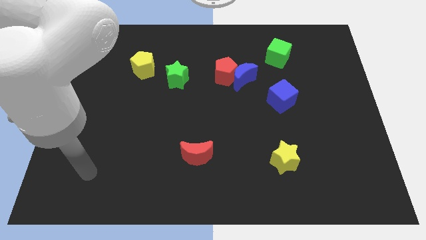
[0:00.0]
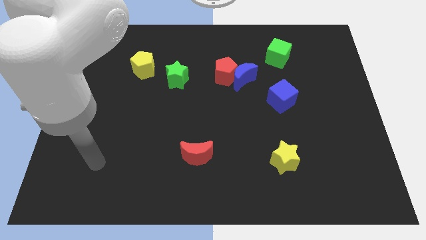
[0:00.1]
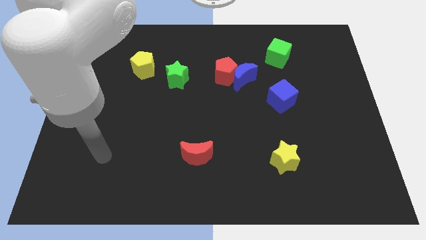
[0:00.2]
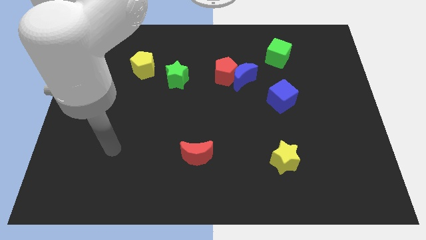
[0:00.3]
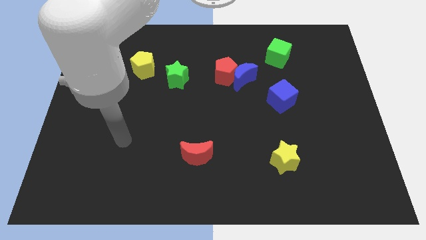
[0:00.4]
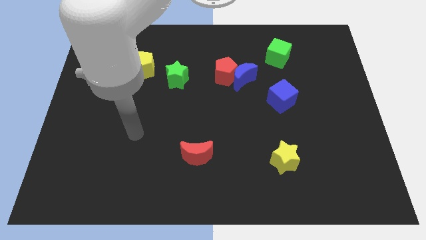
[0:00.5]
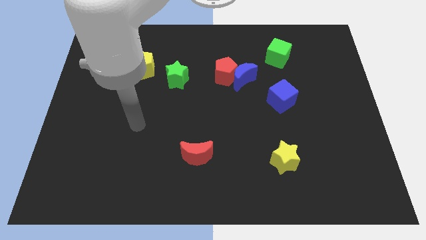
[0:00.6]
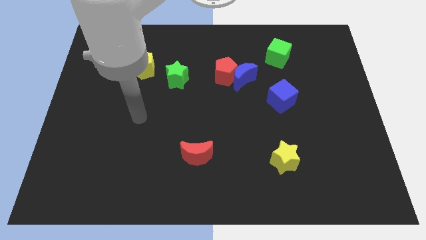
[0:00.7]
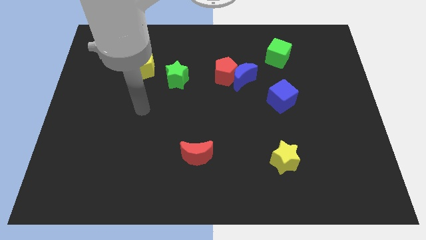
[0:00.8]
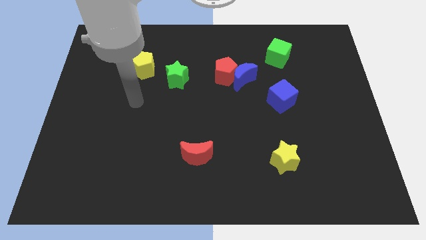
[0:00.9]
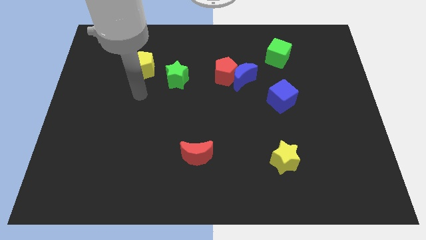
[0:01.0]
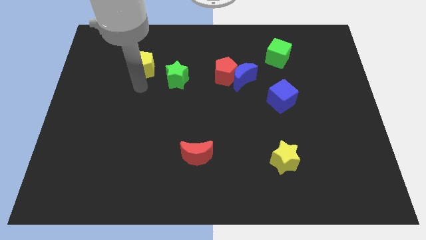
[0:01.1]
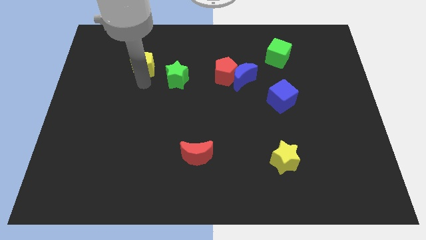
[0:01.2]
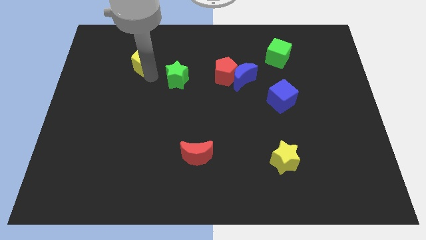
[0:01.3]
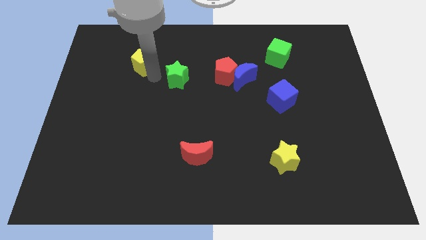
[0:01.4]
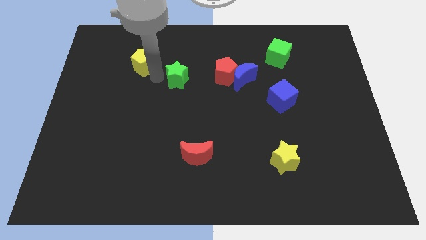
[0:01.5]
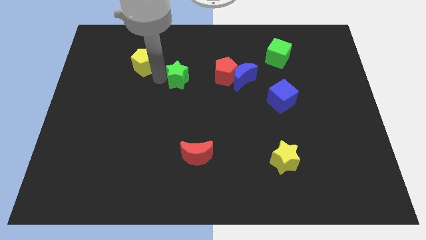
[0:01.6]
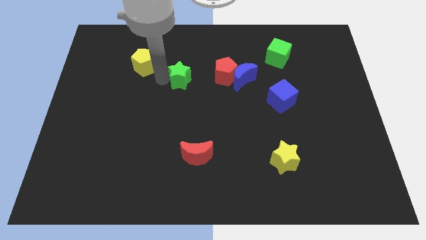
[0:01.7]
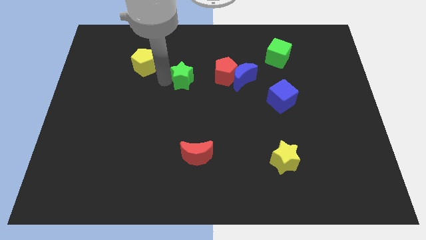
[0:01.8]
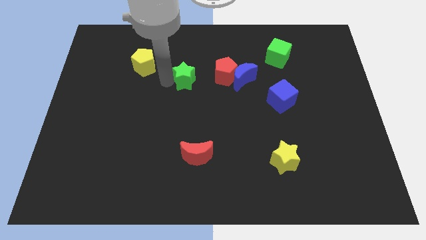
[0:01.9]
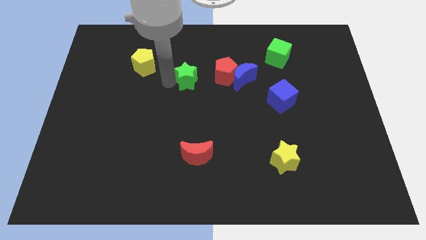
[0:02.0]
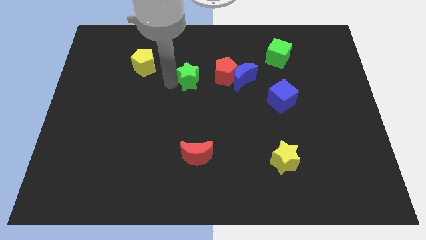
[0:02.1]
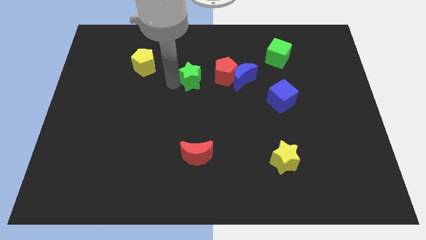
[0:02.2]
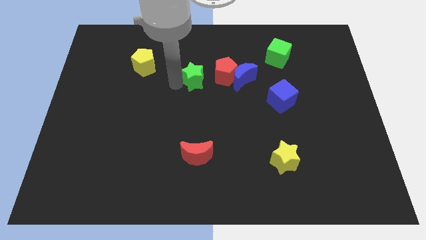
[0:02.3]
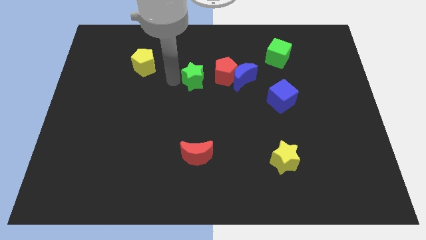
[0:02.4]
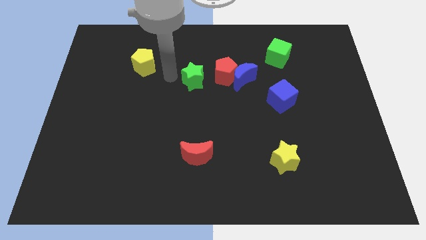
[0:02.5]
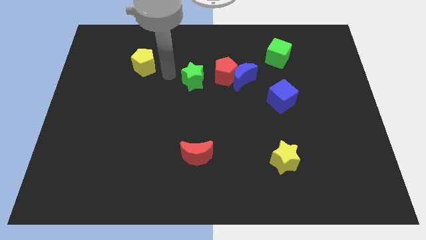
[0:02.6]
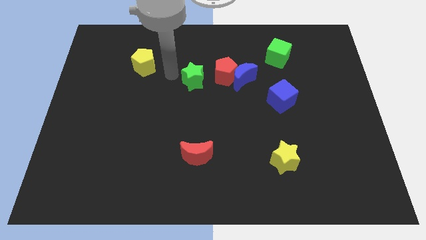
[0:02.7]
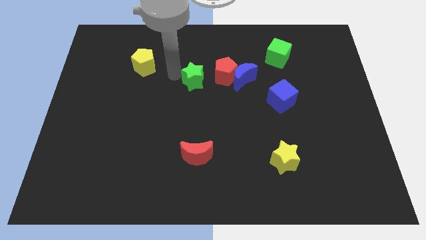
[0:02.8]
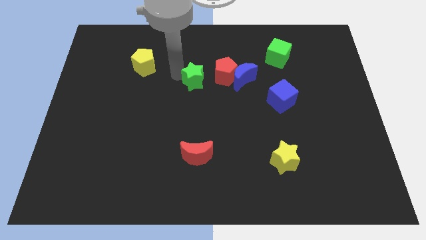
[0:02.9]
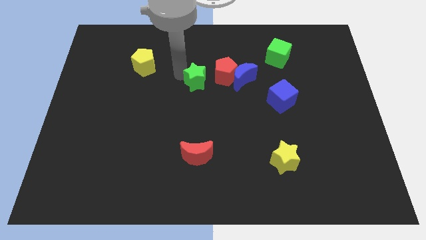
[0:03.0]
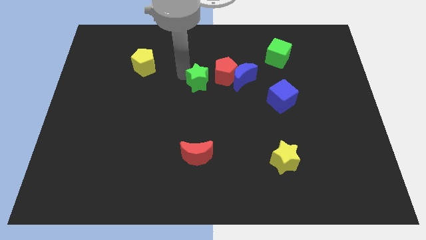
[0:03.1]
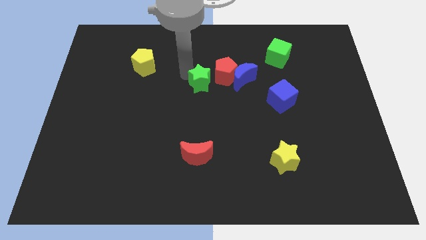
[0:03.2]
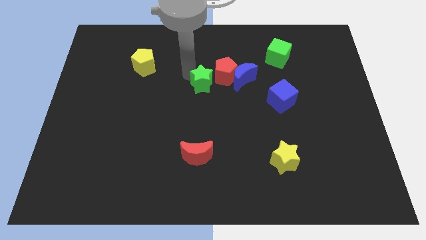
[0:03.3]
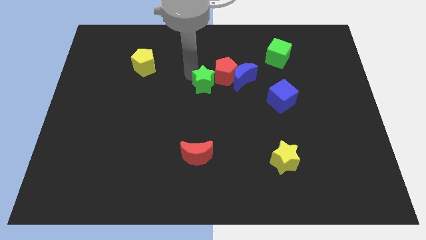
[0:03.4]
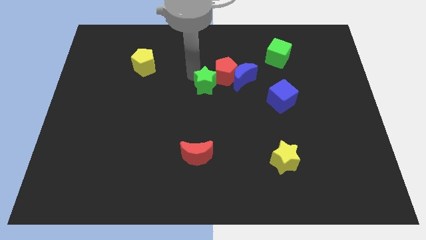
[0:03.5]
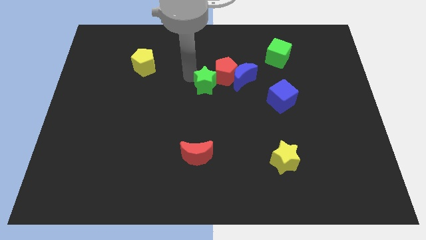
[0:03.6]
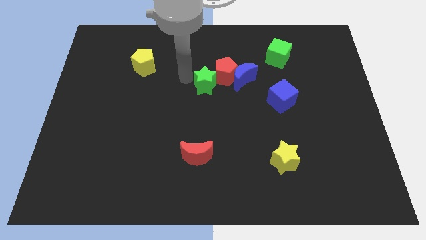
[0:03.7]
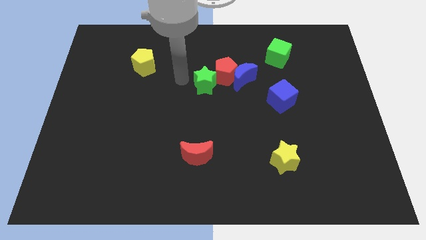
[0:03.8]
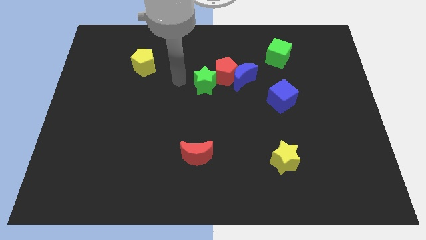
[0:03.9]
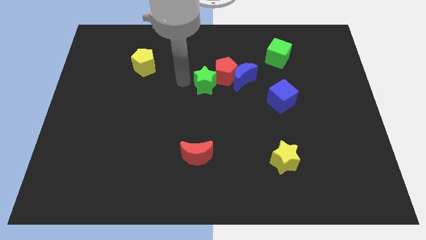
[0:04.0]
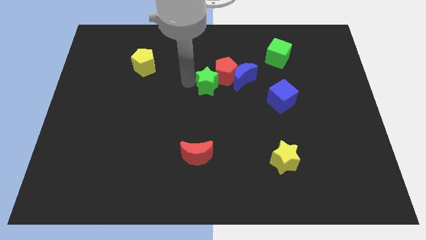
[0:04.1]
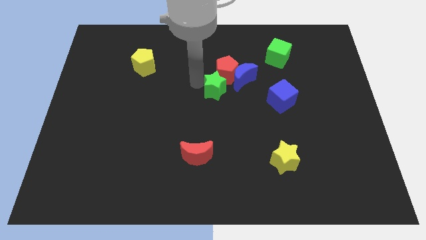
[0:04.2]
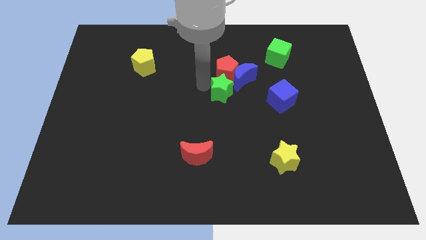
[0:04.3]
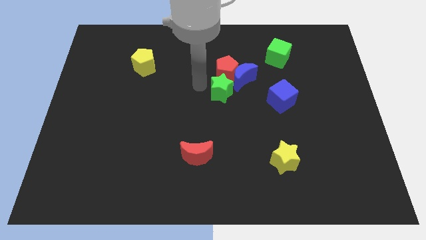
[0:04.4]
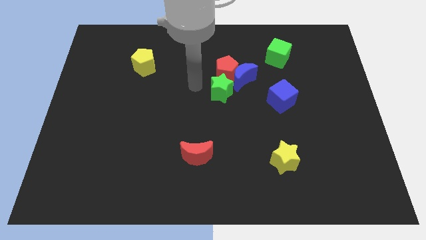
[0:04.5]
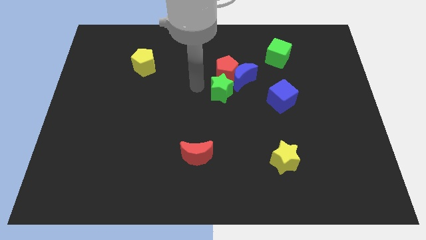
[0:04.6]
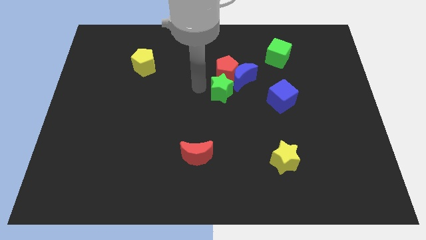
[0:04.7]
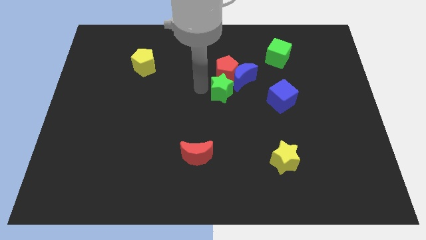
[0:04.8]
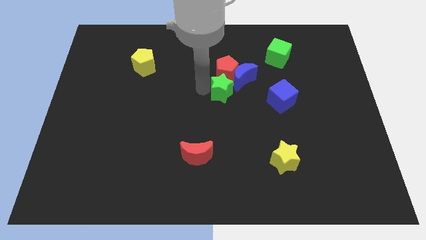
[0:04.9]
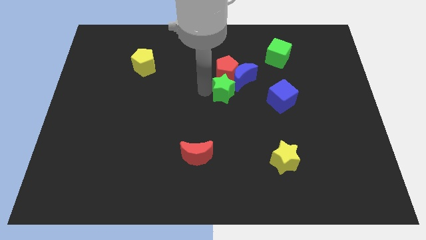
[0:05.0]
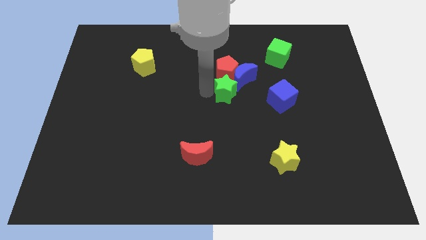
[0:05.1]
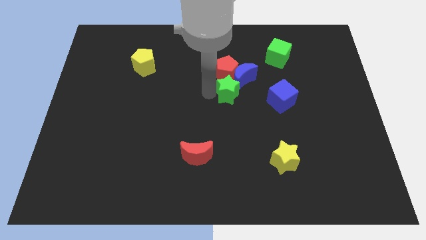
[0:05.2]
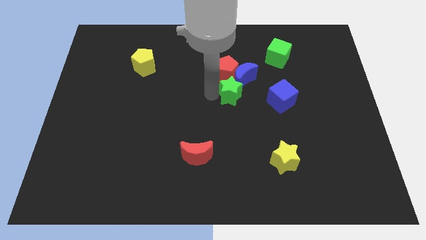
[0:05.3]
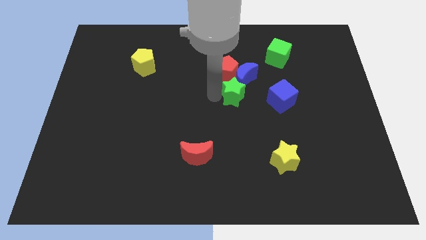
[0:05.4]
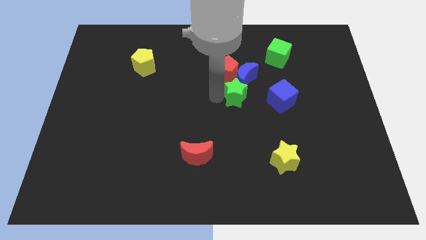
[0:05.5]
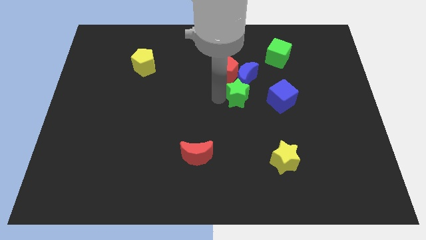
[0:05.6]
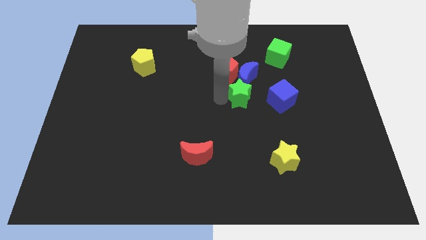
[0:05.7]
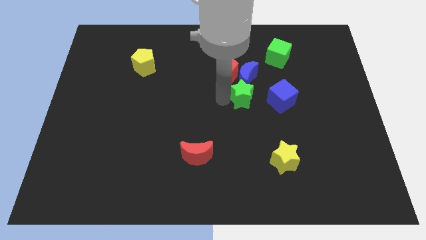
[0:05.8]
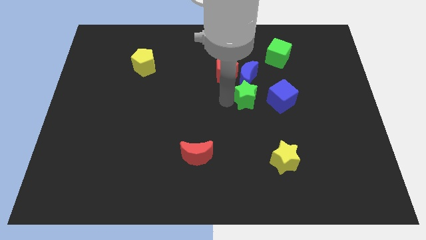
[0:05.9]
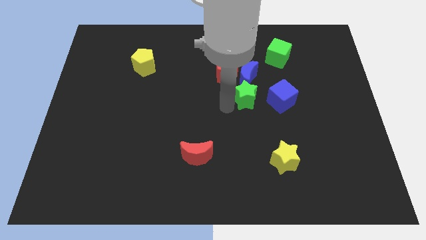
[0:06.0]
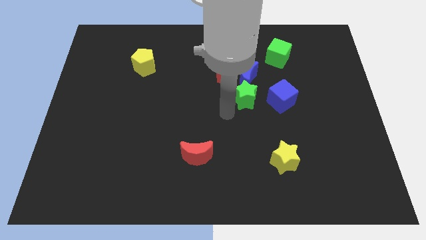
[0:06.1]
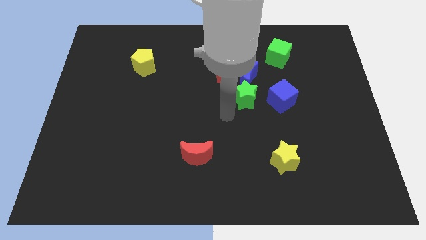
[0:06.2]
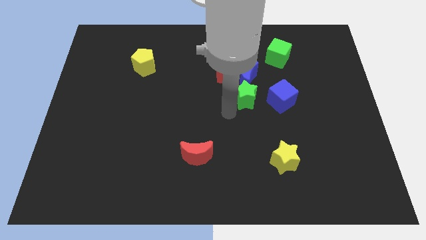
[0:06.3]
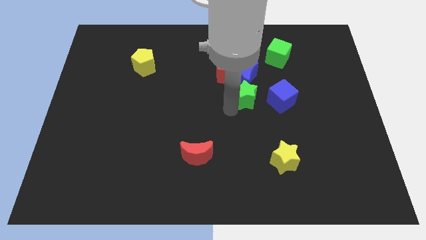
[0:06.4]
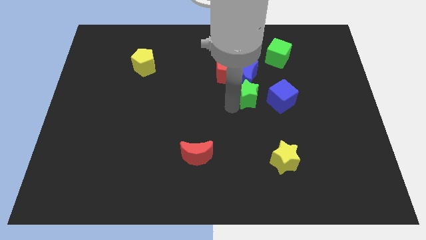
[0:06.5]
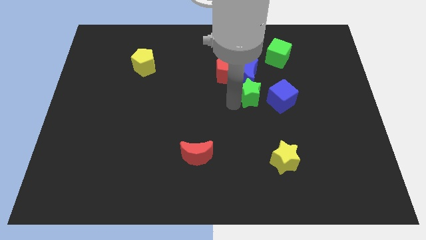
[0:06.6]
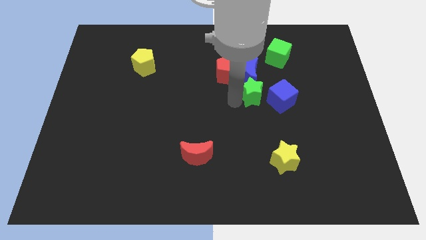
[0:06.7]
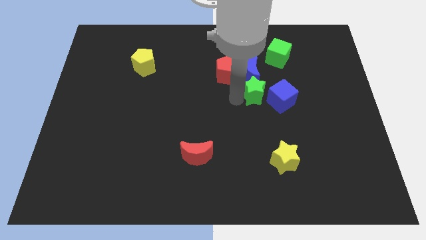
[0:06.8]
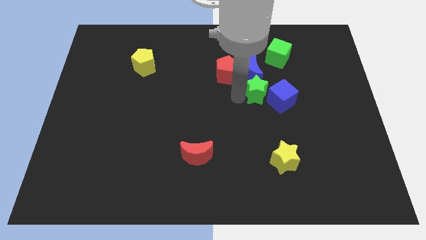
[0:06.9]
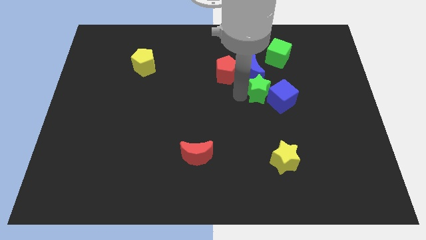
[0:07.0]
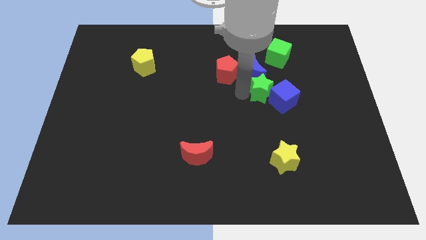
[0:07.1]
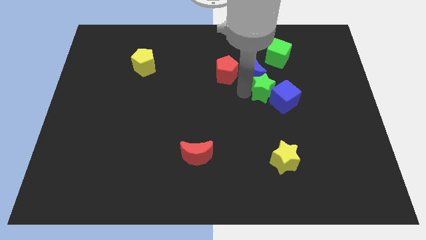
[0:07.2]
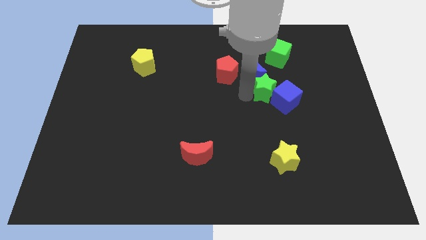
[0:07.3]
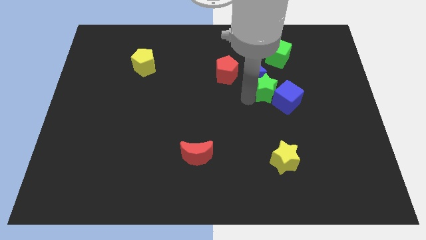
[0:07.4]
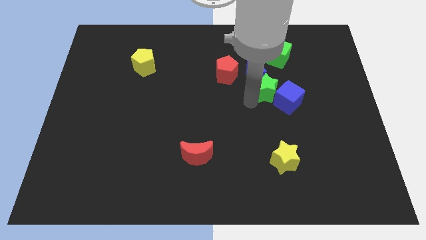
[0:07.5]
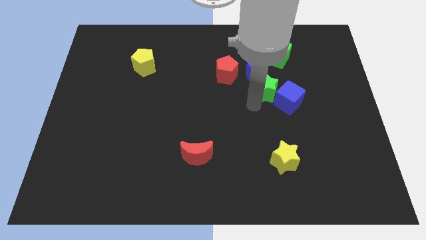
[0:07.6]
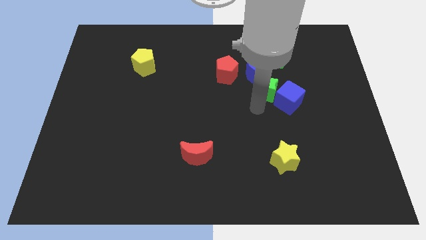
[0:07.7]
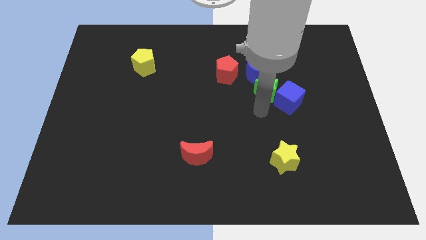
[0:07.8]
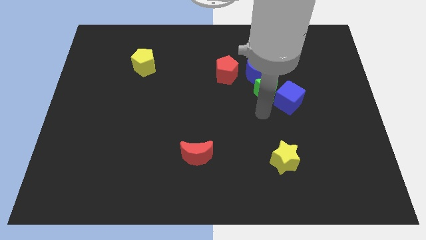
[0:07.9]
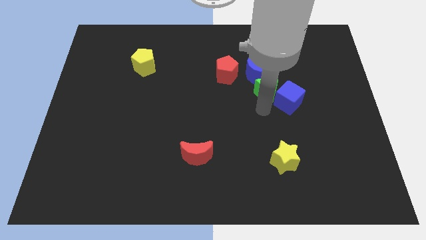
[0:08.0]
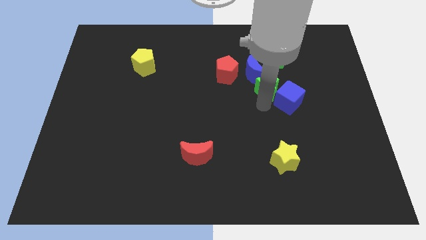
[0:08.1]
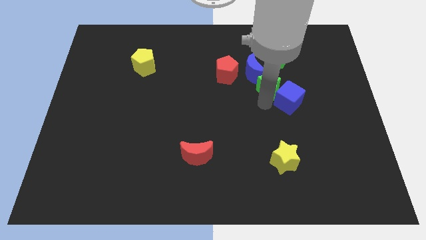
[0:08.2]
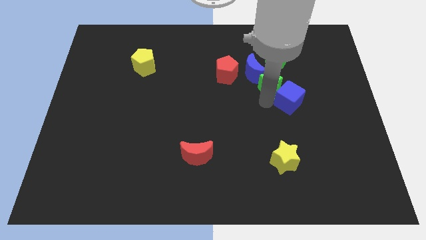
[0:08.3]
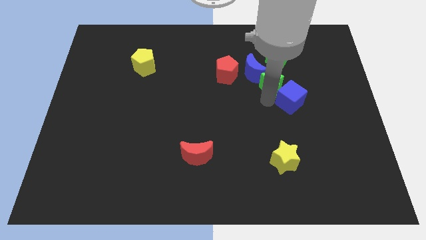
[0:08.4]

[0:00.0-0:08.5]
put the green star to the right side of the blue moon
